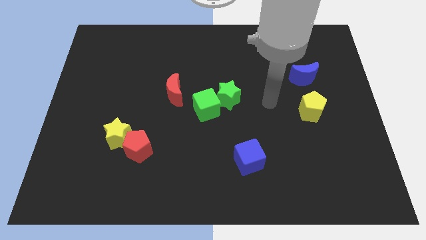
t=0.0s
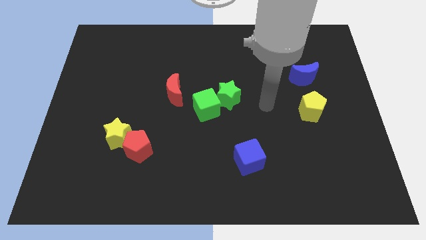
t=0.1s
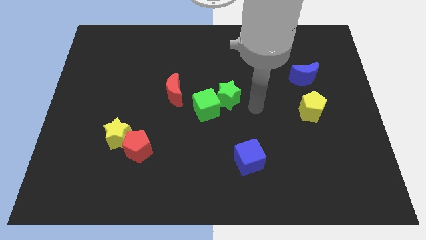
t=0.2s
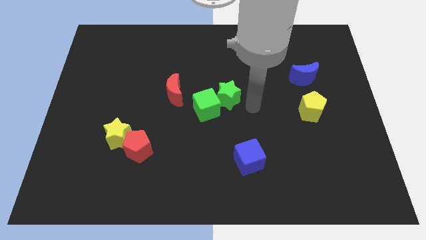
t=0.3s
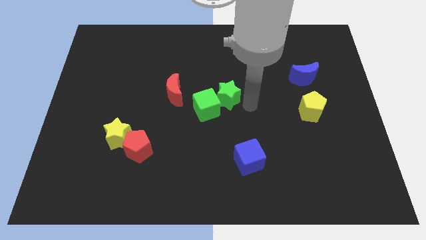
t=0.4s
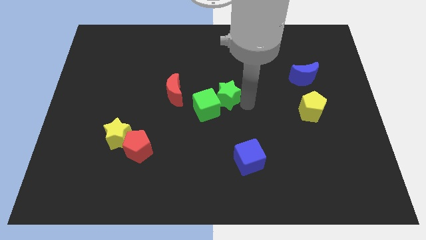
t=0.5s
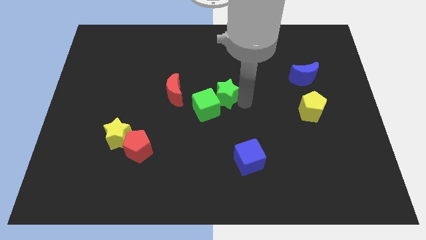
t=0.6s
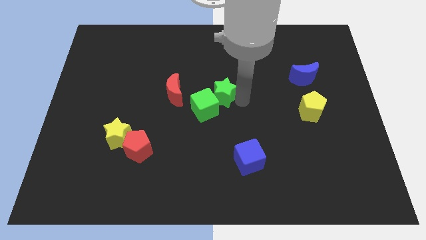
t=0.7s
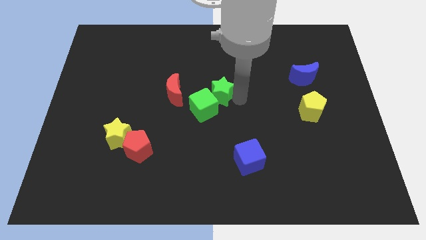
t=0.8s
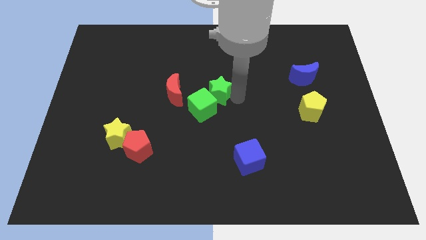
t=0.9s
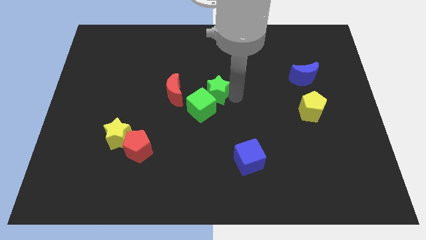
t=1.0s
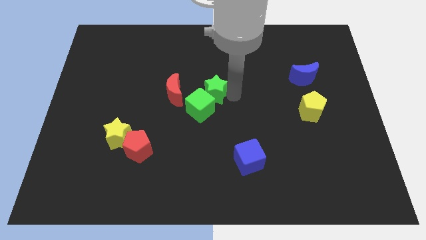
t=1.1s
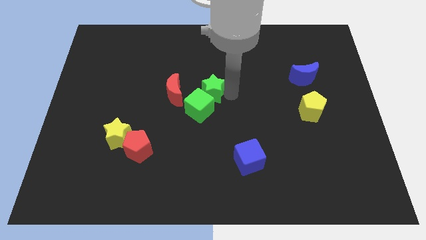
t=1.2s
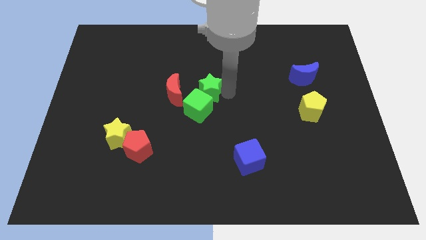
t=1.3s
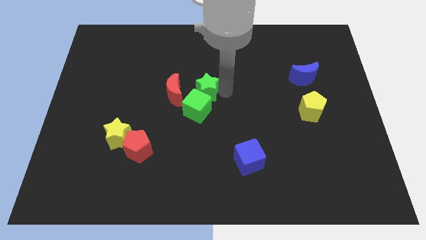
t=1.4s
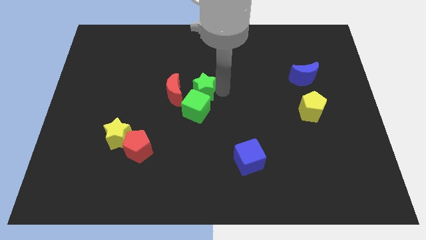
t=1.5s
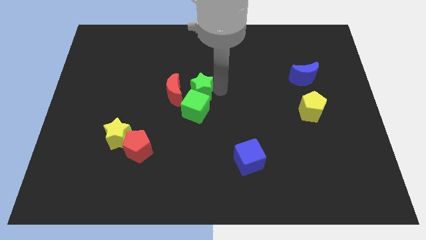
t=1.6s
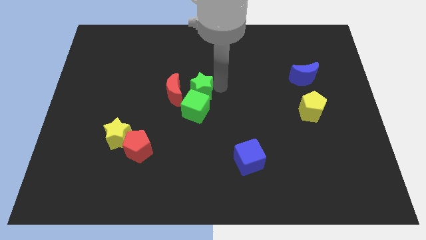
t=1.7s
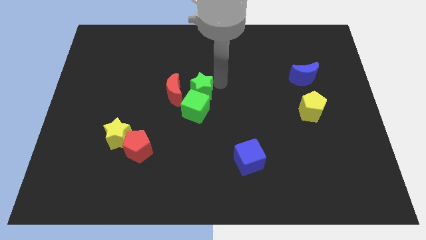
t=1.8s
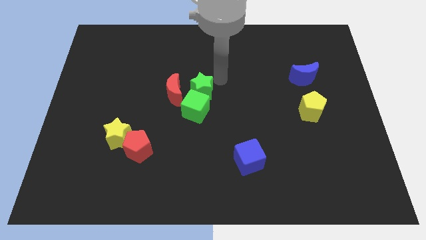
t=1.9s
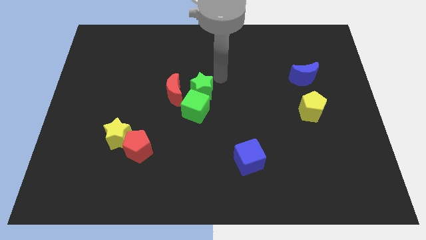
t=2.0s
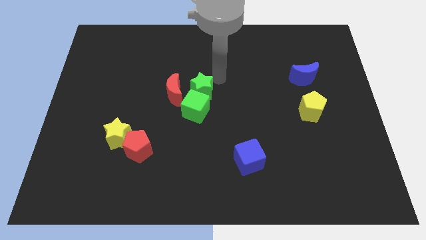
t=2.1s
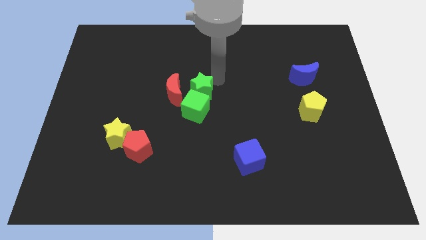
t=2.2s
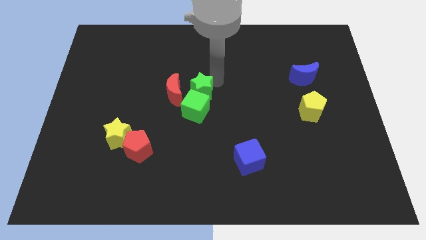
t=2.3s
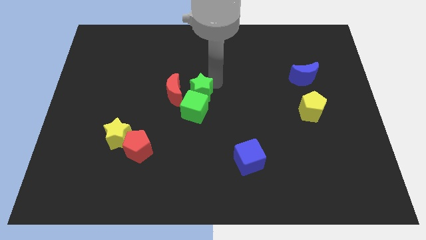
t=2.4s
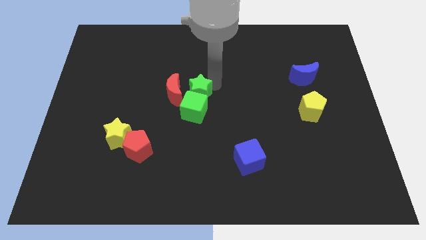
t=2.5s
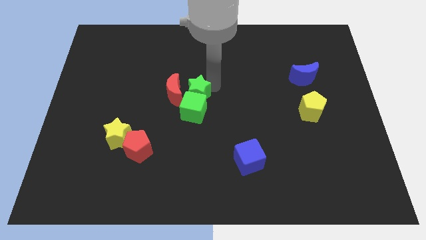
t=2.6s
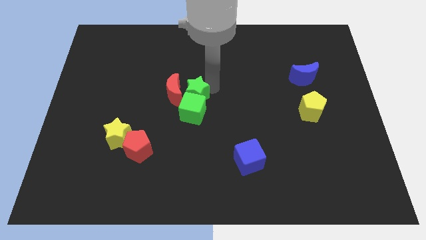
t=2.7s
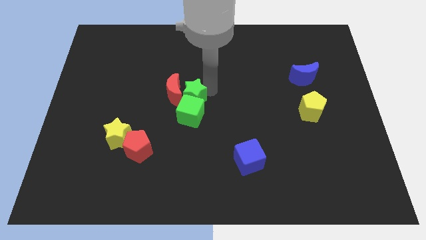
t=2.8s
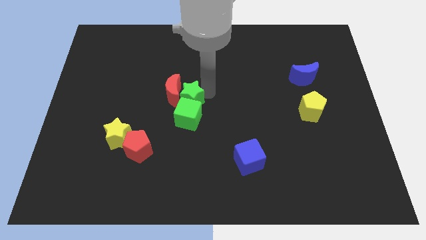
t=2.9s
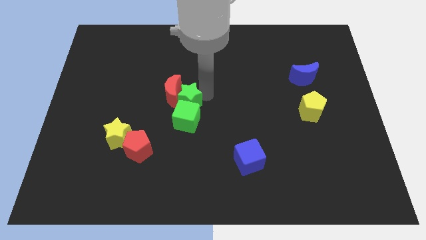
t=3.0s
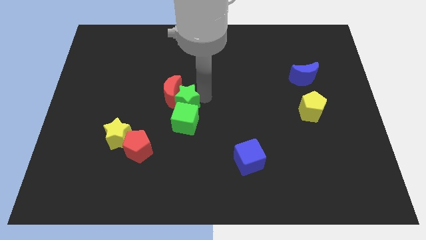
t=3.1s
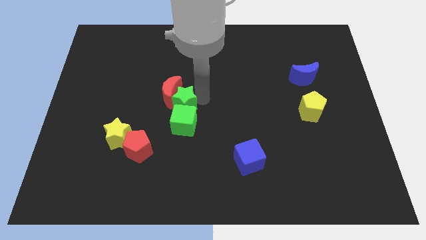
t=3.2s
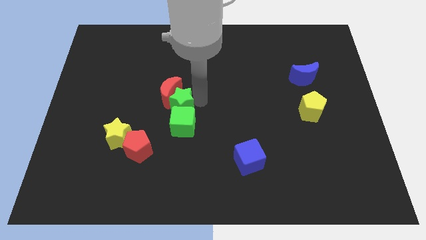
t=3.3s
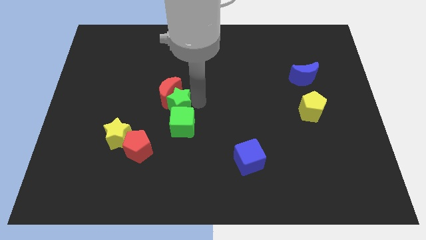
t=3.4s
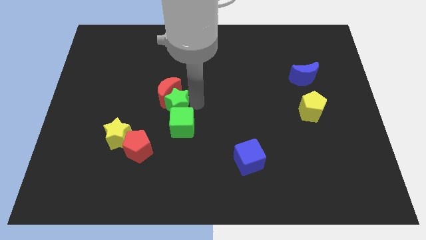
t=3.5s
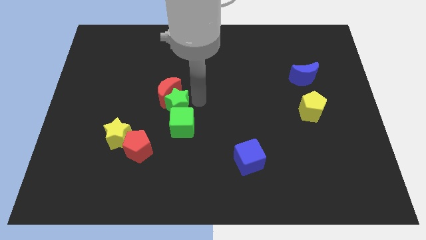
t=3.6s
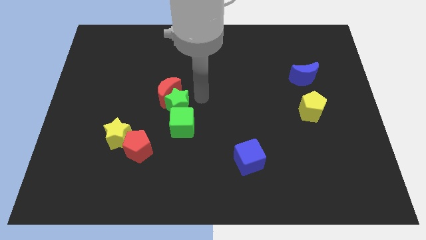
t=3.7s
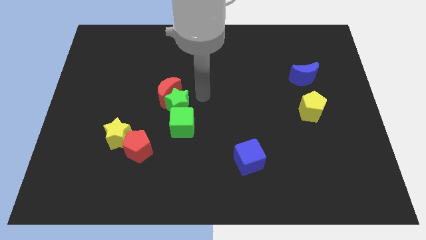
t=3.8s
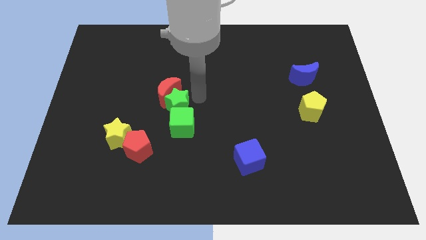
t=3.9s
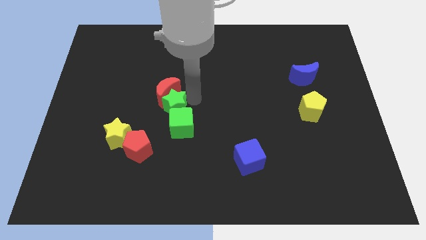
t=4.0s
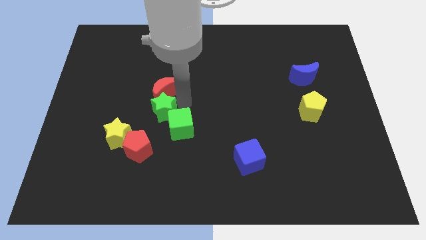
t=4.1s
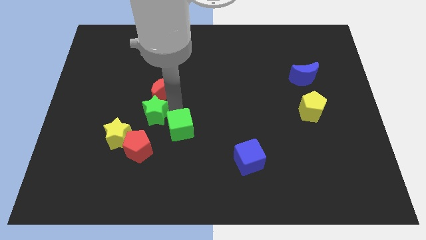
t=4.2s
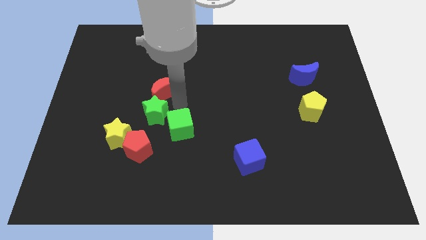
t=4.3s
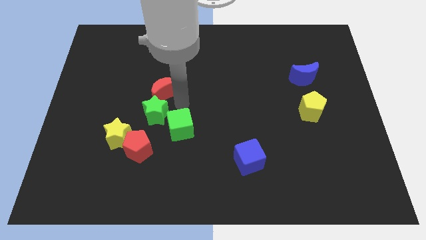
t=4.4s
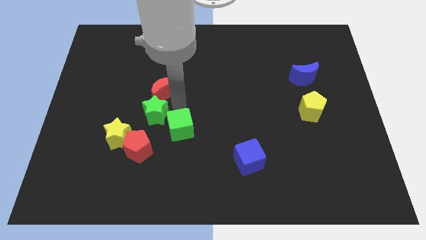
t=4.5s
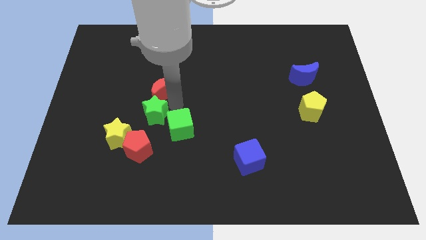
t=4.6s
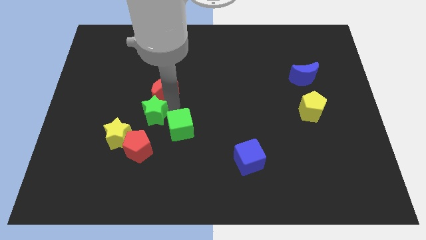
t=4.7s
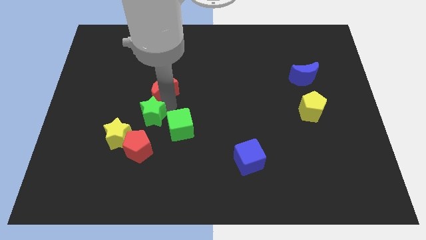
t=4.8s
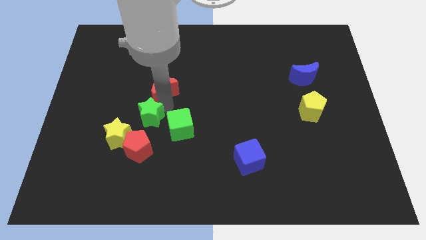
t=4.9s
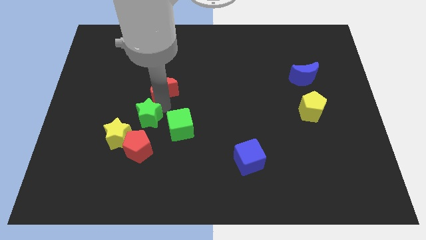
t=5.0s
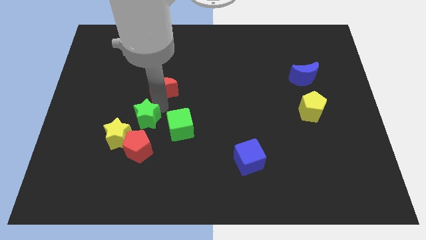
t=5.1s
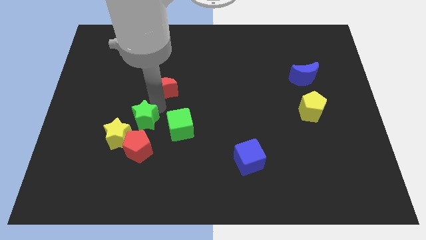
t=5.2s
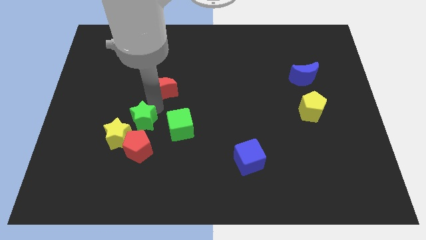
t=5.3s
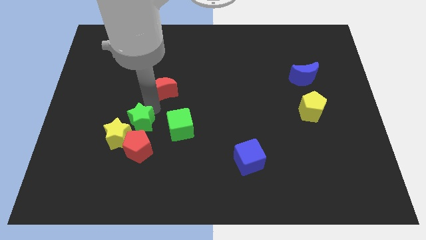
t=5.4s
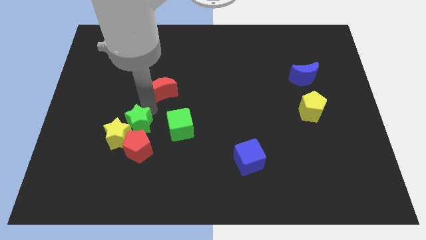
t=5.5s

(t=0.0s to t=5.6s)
slide the green star close to the yellow star

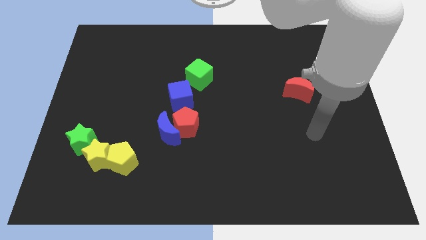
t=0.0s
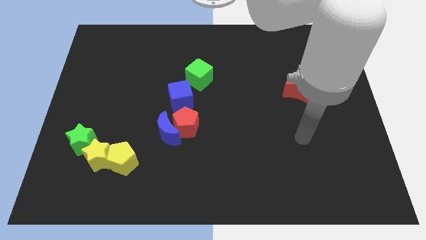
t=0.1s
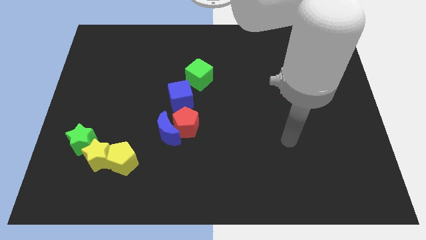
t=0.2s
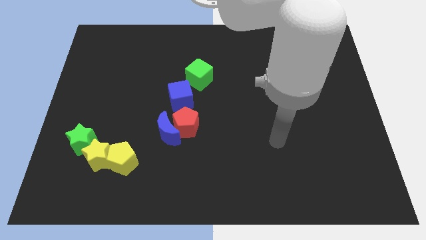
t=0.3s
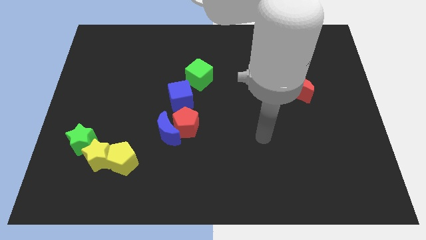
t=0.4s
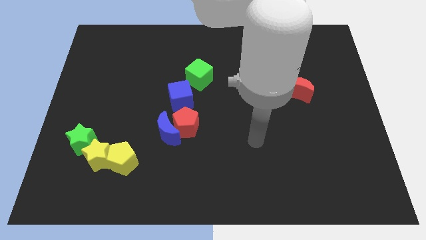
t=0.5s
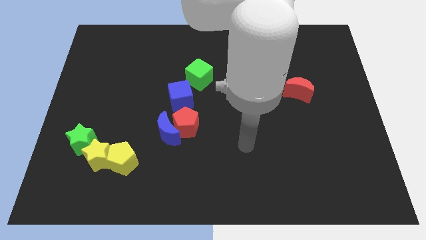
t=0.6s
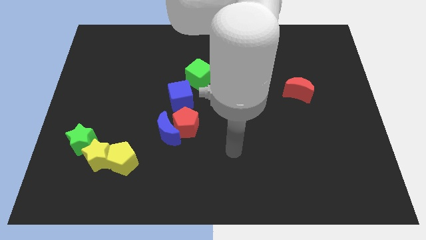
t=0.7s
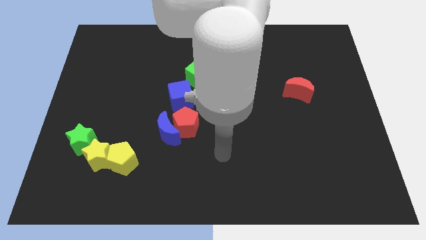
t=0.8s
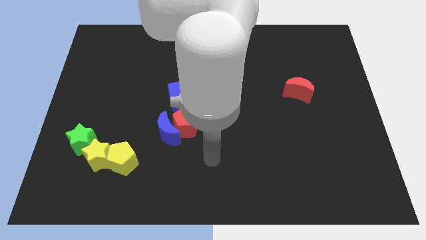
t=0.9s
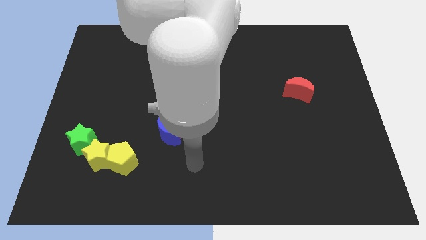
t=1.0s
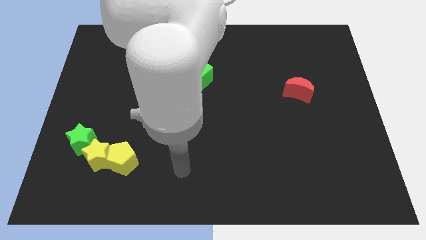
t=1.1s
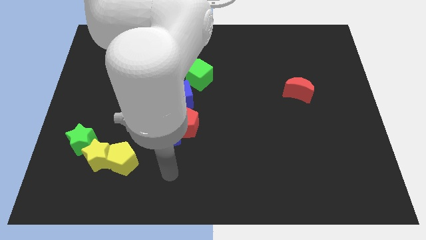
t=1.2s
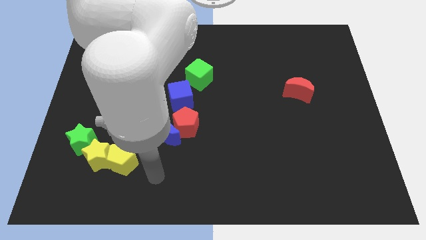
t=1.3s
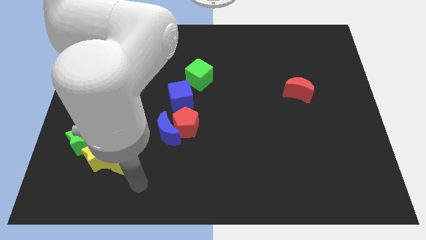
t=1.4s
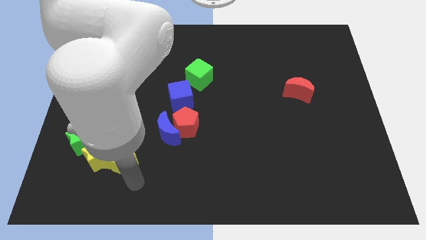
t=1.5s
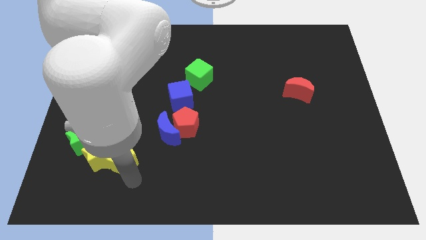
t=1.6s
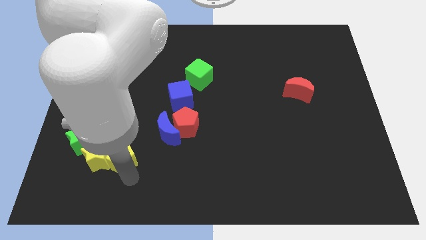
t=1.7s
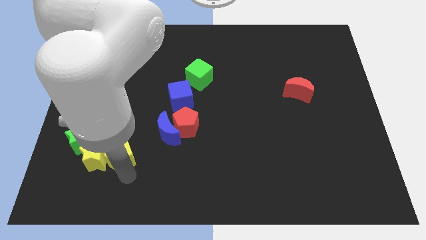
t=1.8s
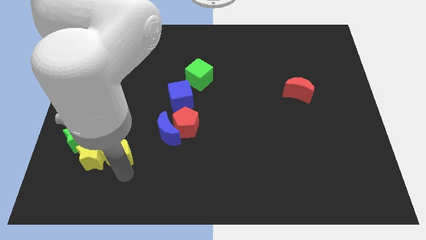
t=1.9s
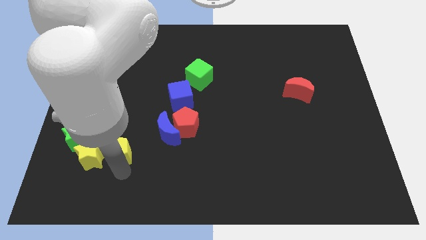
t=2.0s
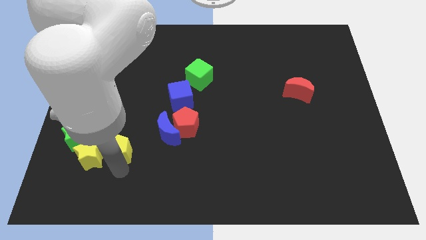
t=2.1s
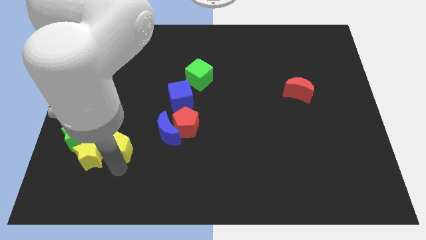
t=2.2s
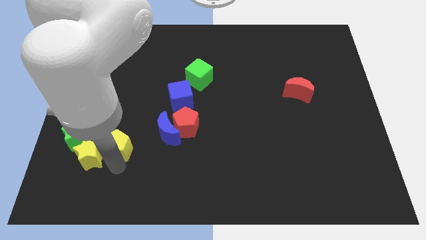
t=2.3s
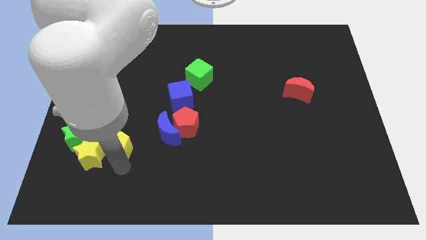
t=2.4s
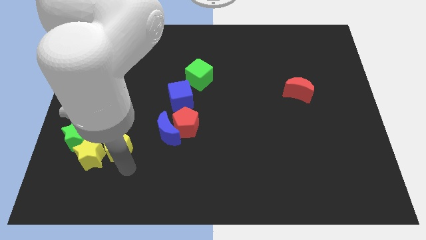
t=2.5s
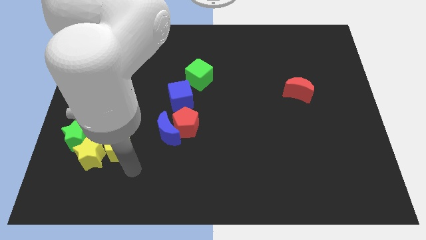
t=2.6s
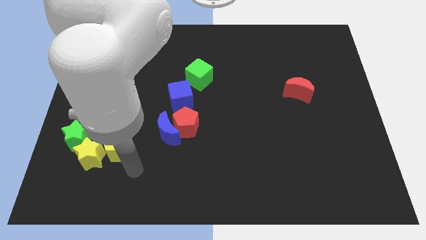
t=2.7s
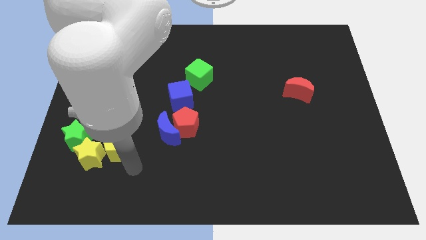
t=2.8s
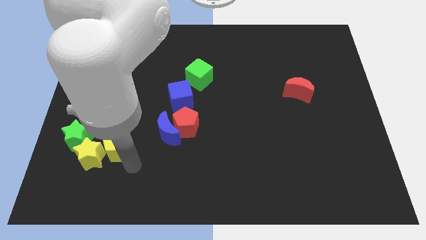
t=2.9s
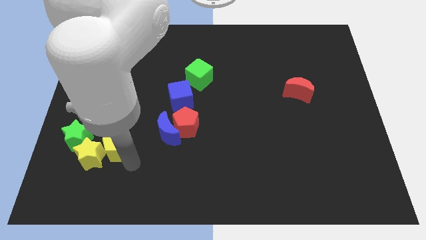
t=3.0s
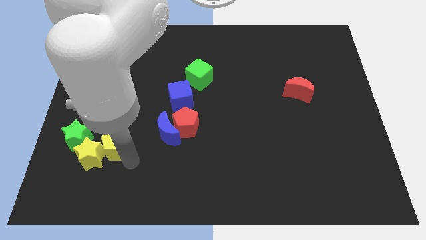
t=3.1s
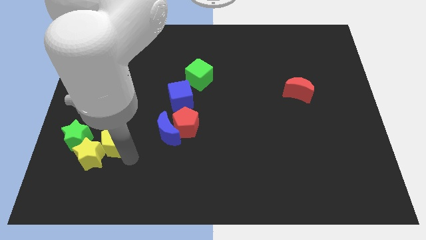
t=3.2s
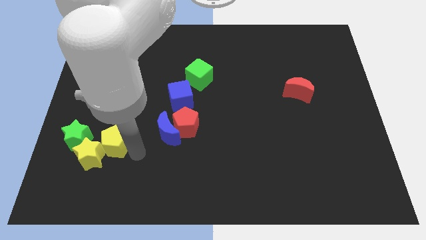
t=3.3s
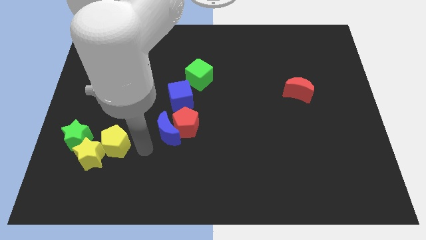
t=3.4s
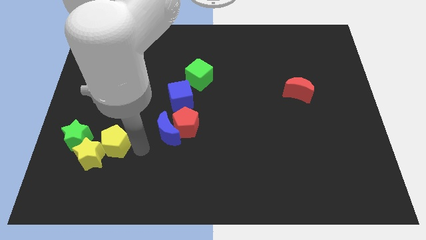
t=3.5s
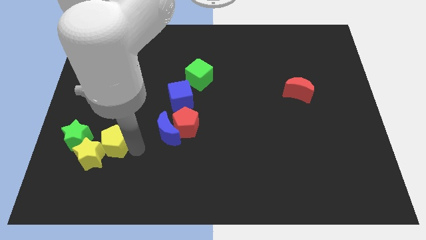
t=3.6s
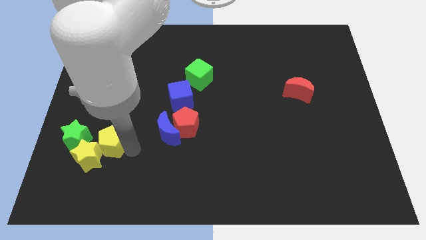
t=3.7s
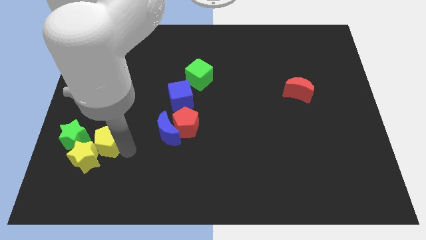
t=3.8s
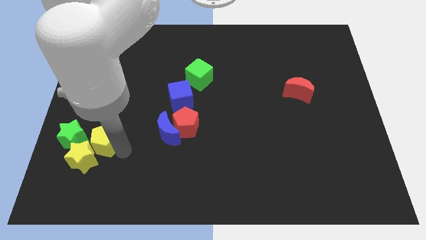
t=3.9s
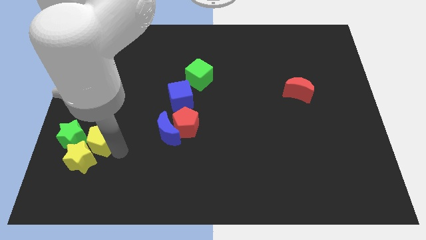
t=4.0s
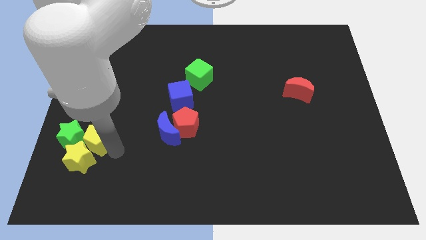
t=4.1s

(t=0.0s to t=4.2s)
slide the yellow pentagon towards the green star
